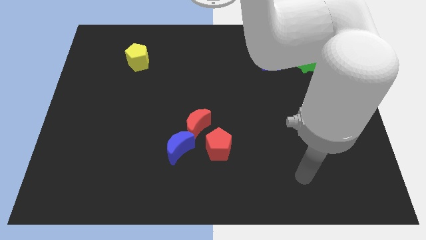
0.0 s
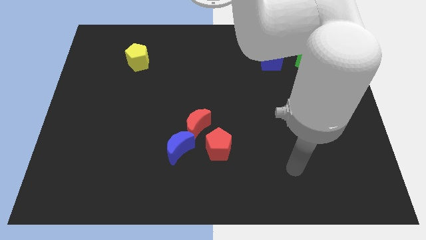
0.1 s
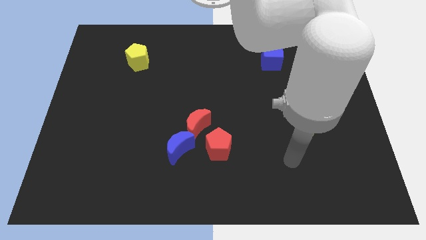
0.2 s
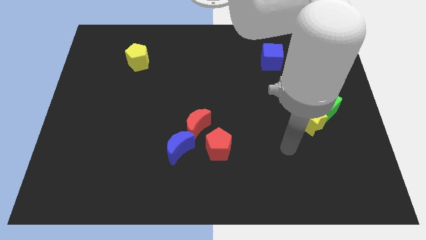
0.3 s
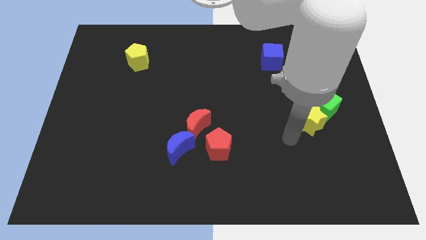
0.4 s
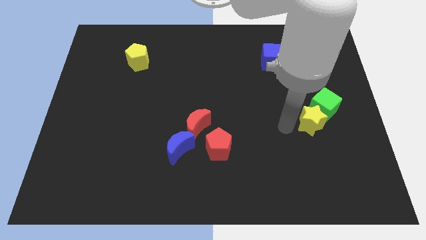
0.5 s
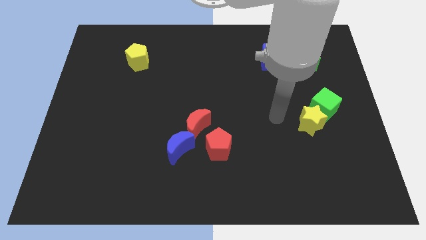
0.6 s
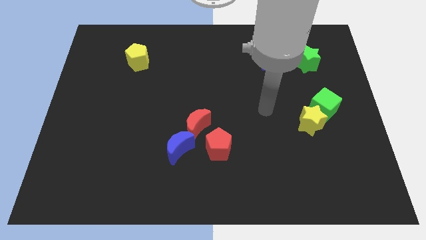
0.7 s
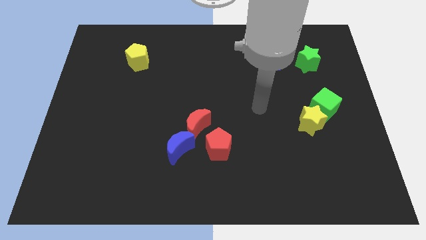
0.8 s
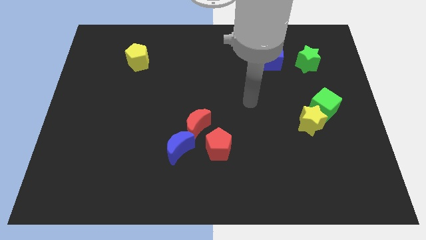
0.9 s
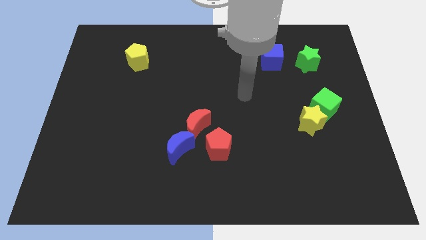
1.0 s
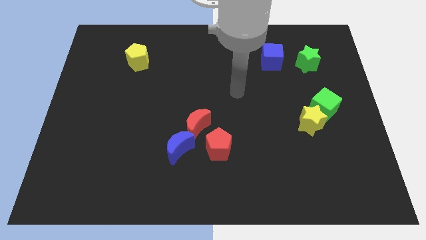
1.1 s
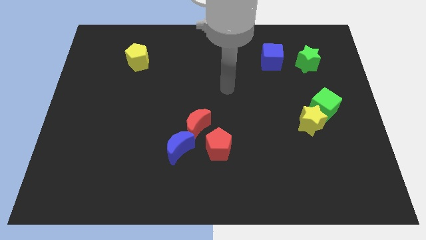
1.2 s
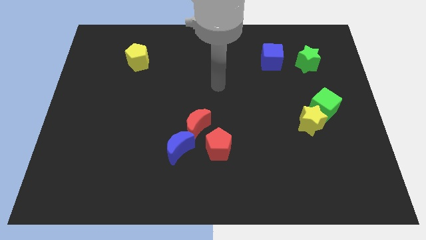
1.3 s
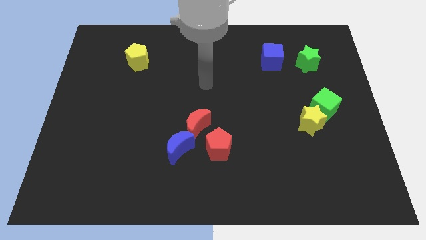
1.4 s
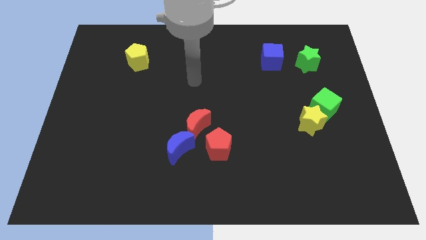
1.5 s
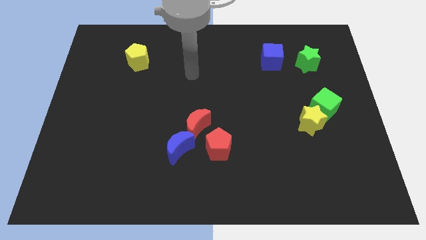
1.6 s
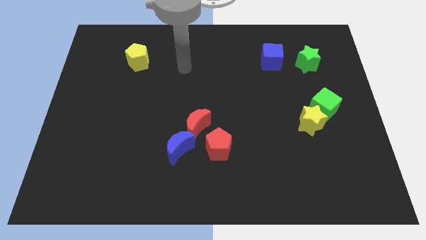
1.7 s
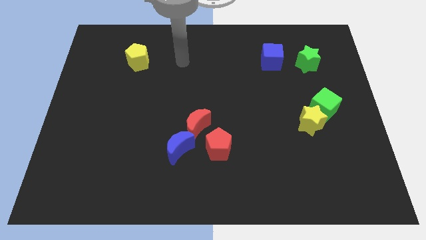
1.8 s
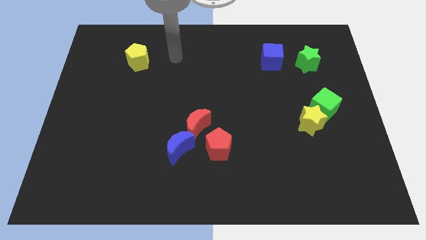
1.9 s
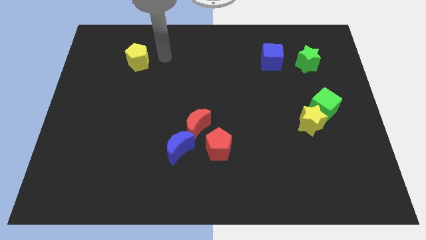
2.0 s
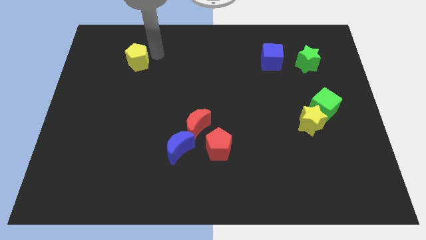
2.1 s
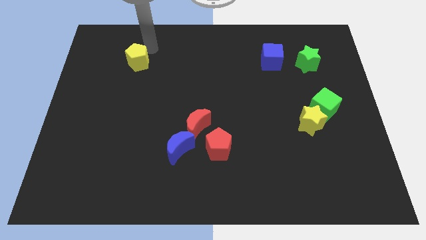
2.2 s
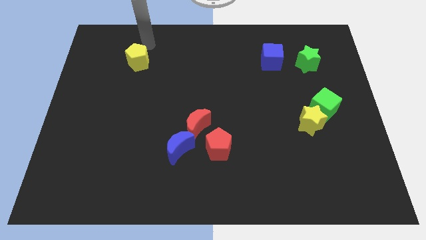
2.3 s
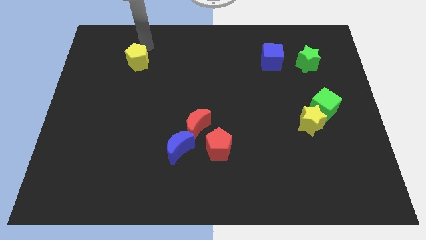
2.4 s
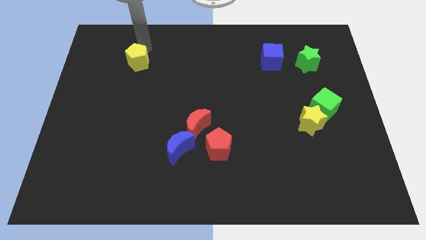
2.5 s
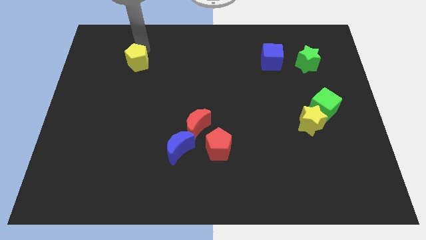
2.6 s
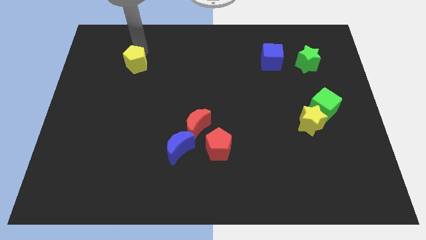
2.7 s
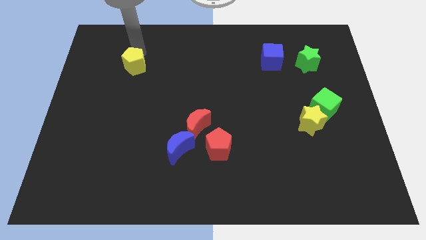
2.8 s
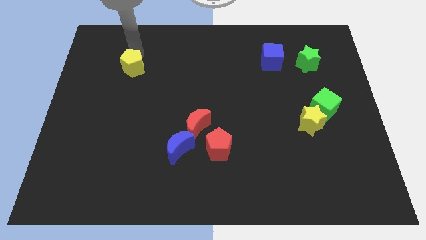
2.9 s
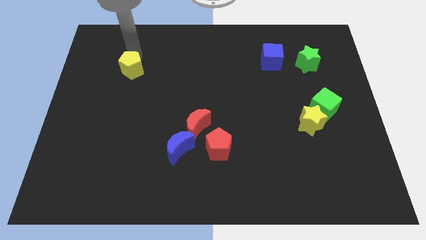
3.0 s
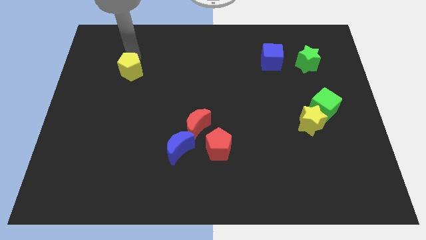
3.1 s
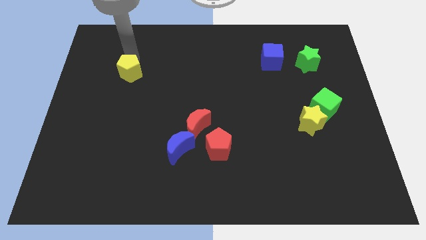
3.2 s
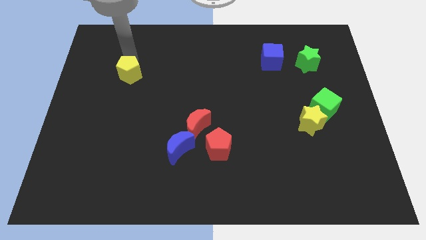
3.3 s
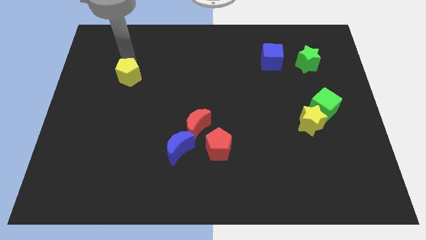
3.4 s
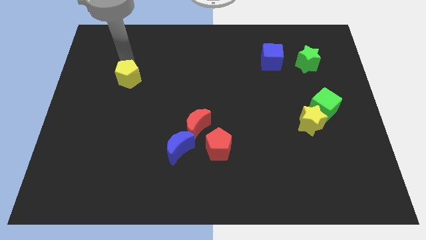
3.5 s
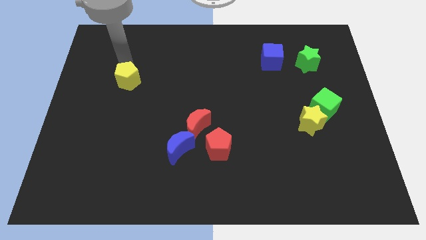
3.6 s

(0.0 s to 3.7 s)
move the yellow pentagon a bit down

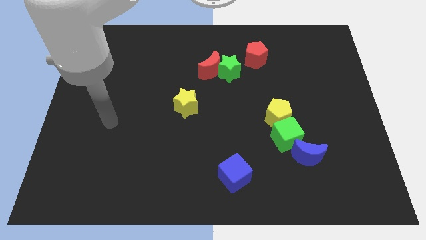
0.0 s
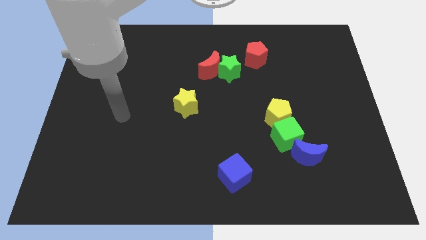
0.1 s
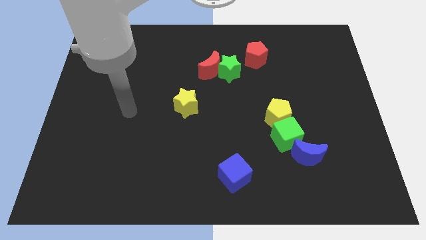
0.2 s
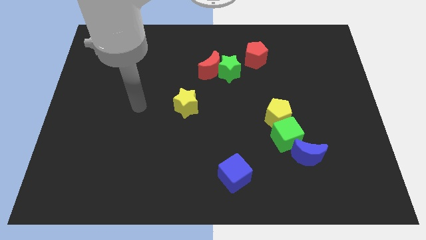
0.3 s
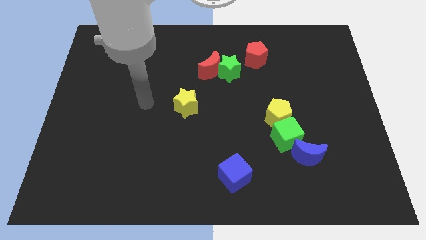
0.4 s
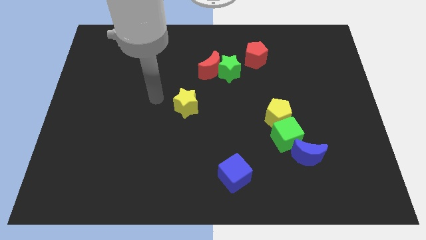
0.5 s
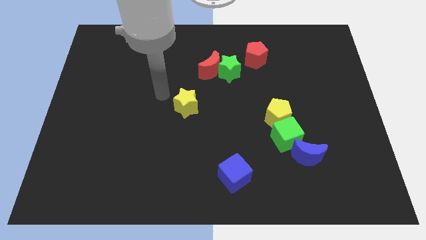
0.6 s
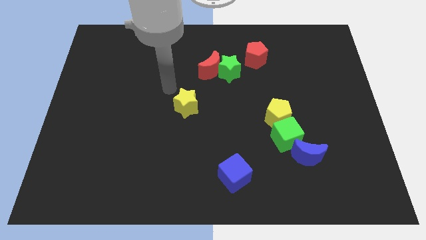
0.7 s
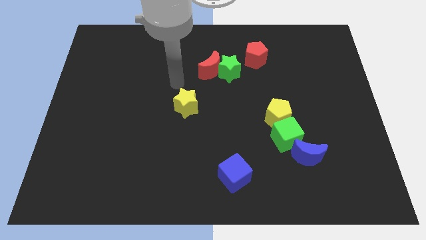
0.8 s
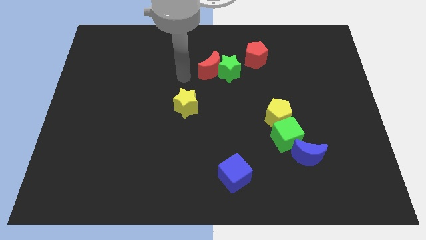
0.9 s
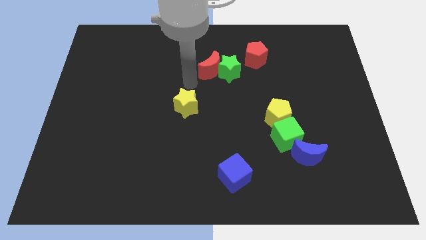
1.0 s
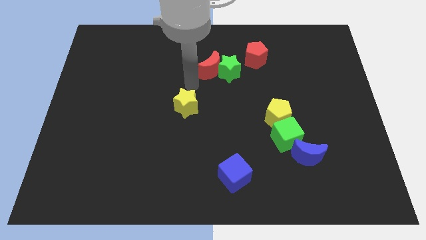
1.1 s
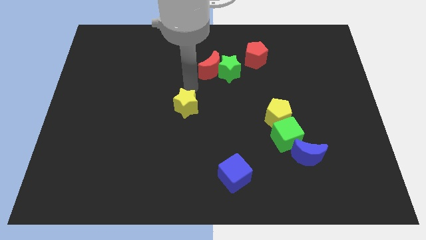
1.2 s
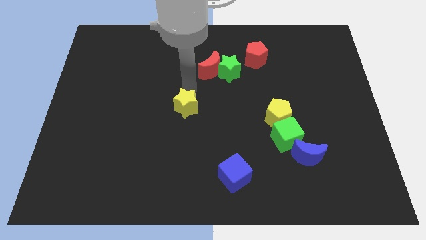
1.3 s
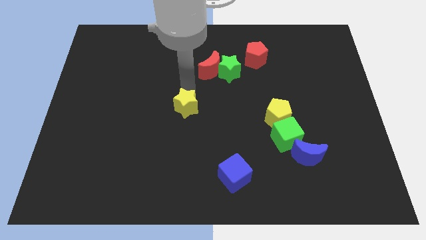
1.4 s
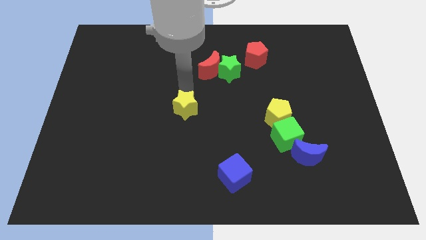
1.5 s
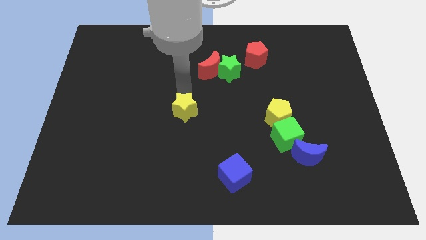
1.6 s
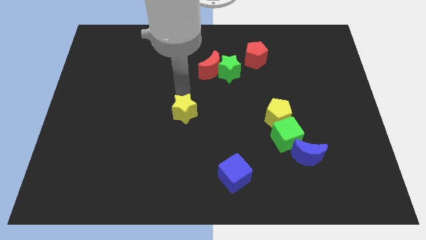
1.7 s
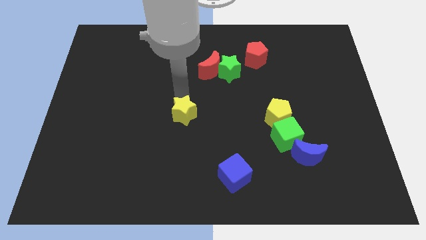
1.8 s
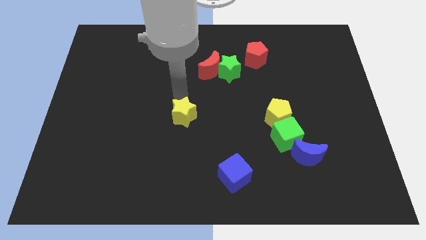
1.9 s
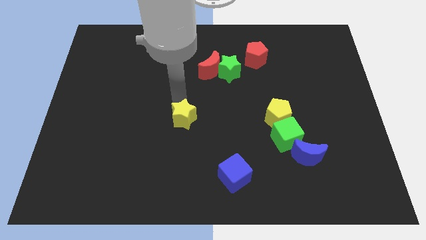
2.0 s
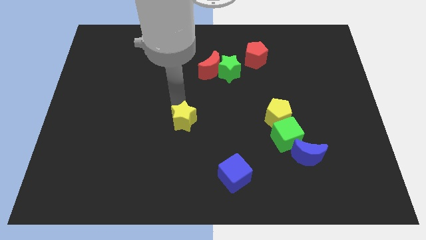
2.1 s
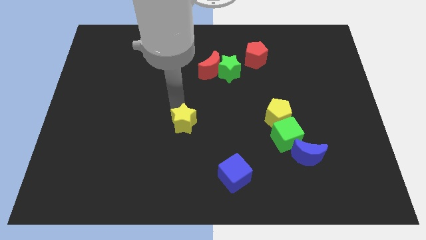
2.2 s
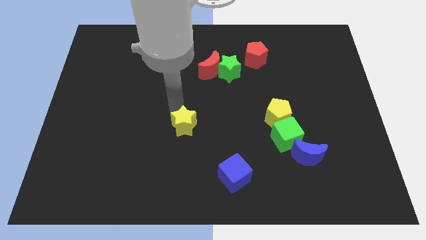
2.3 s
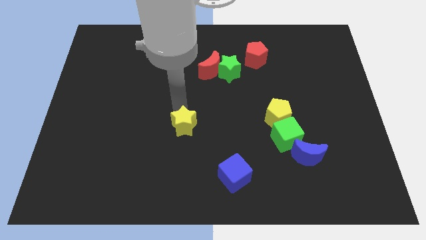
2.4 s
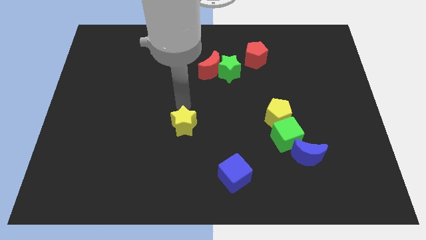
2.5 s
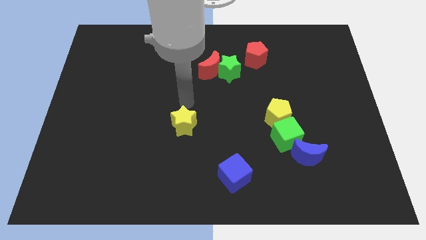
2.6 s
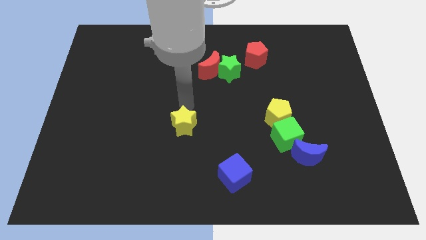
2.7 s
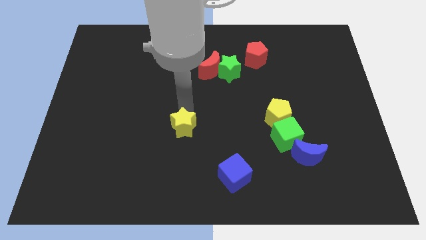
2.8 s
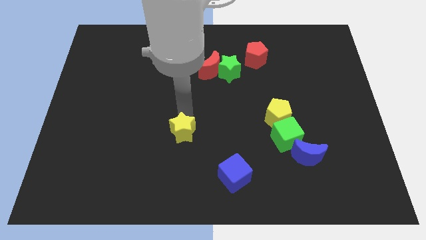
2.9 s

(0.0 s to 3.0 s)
move the yellow star a little bit downwards

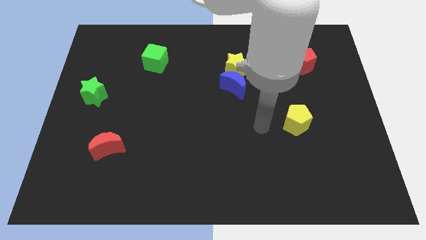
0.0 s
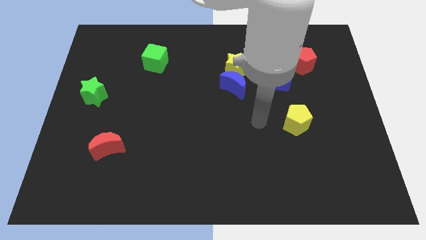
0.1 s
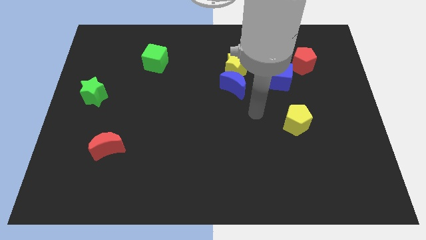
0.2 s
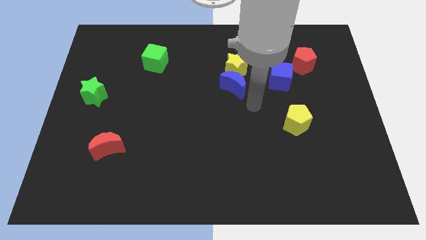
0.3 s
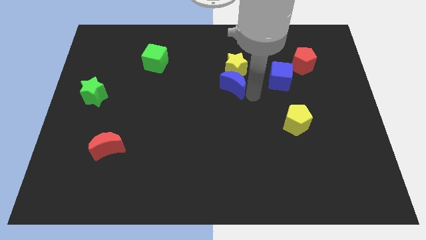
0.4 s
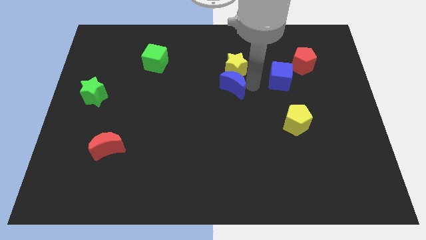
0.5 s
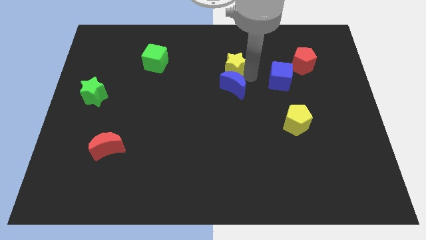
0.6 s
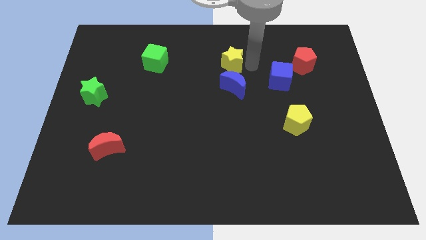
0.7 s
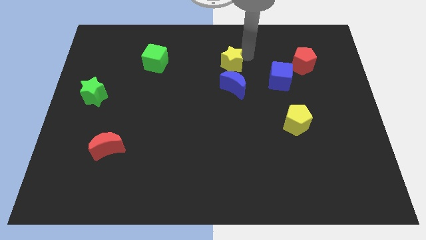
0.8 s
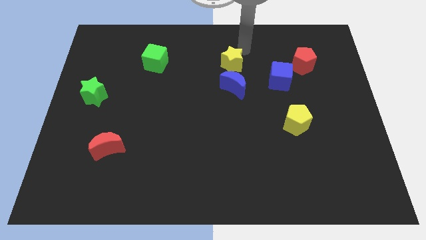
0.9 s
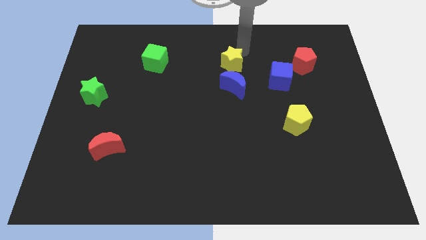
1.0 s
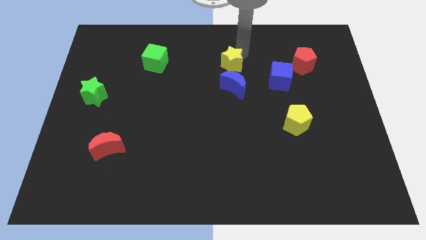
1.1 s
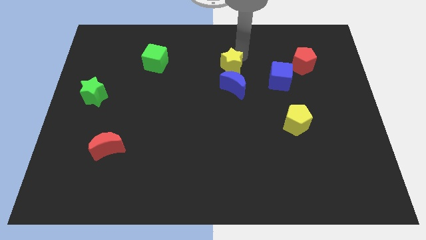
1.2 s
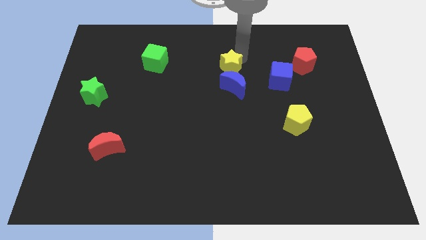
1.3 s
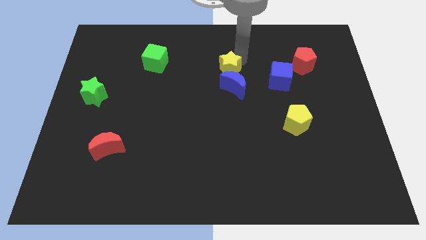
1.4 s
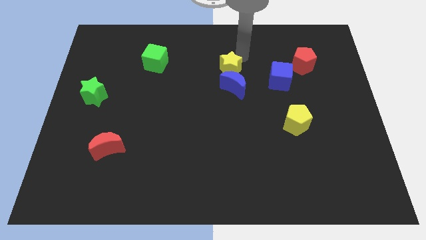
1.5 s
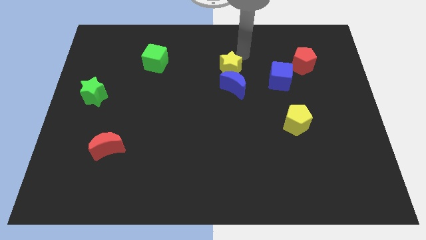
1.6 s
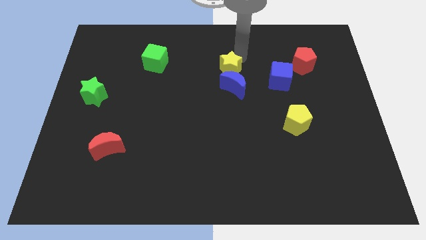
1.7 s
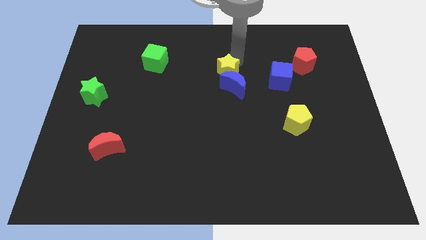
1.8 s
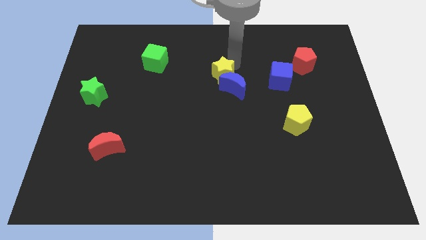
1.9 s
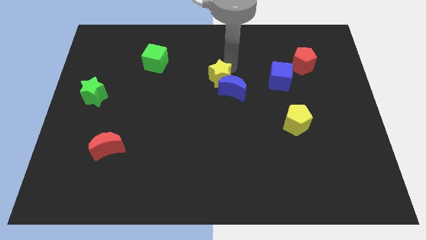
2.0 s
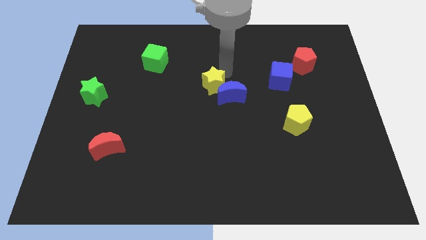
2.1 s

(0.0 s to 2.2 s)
push the yellow star diagonally down and to the left a little bit
